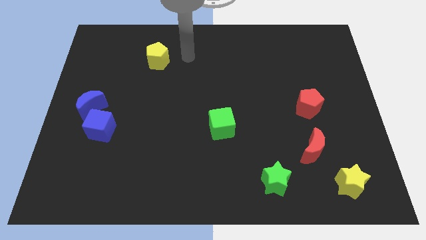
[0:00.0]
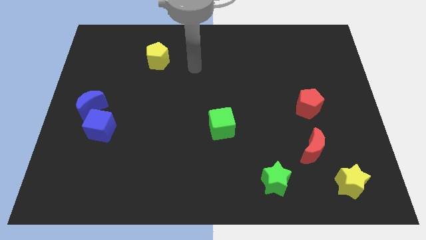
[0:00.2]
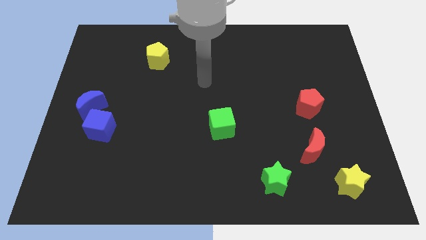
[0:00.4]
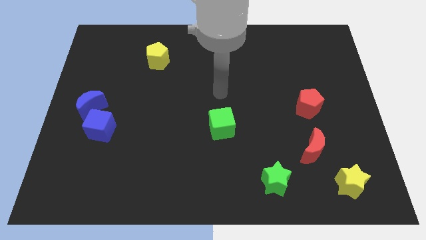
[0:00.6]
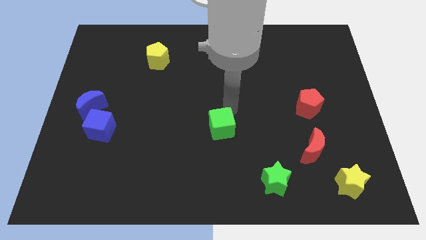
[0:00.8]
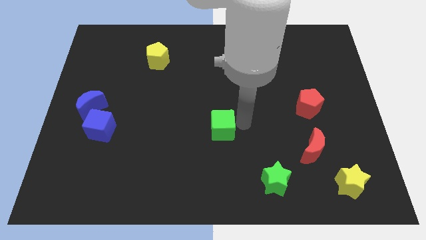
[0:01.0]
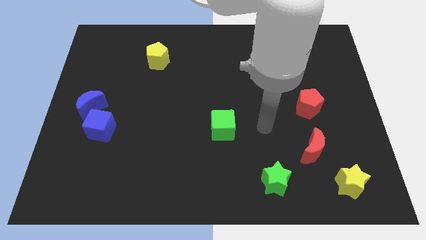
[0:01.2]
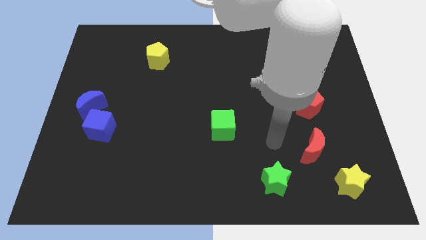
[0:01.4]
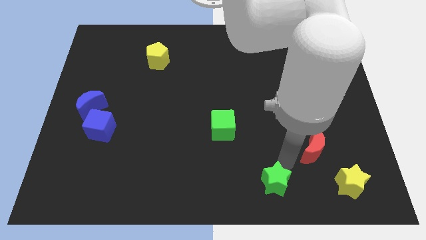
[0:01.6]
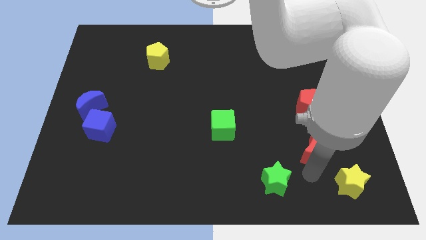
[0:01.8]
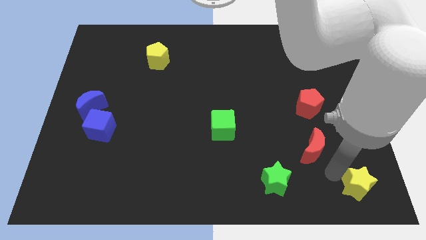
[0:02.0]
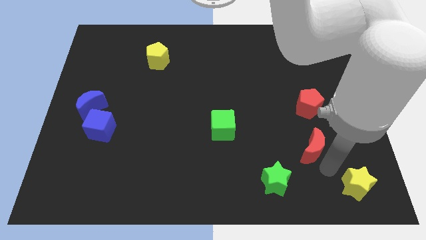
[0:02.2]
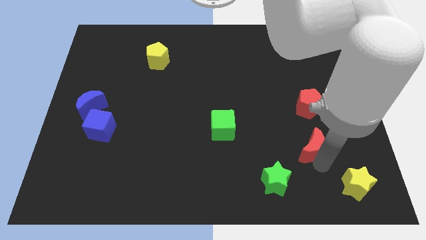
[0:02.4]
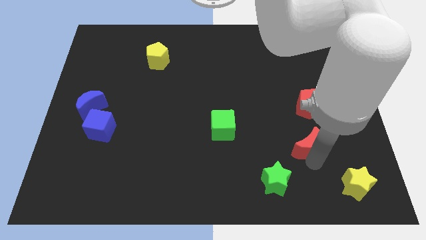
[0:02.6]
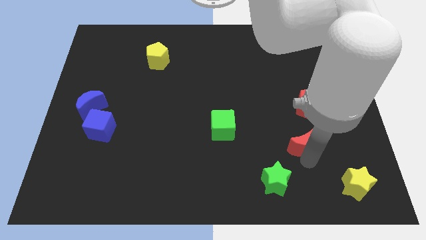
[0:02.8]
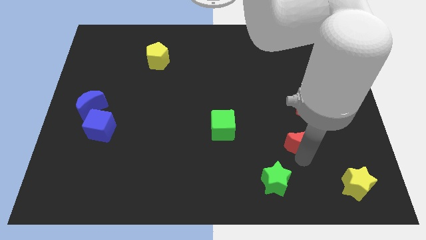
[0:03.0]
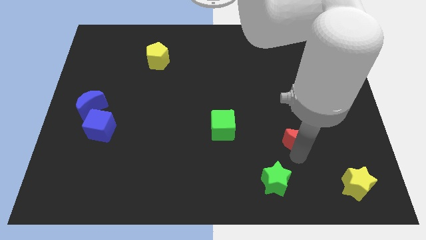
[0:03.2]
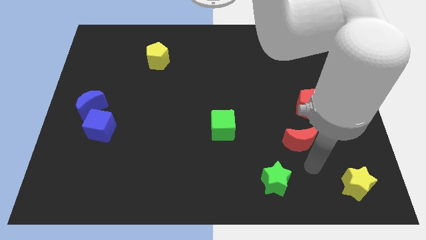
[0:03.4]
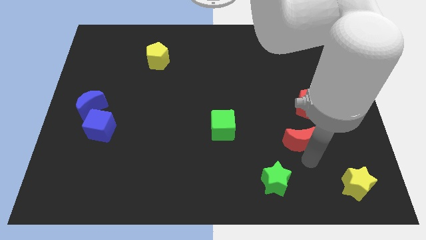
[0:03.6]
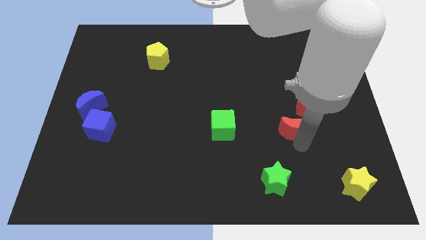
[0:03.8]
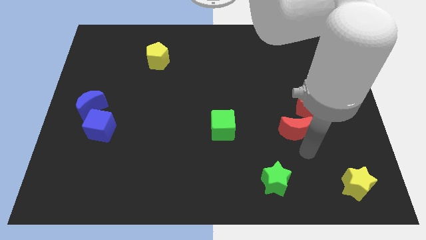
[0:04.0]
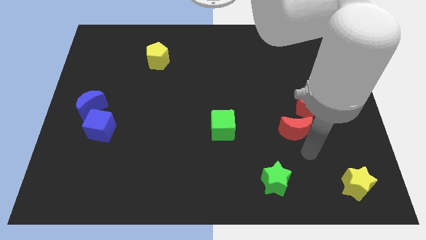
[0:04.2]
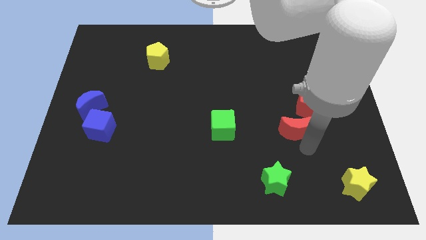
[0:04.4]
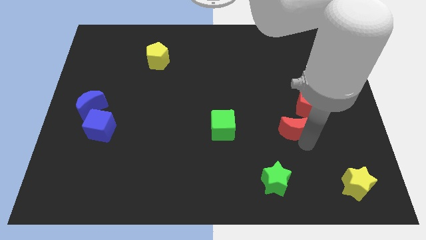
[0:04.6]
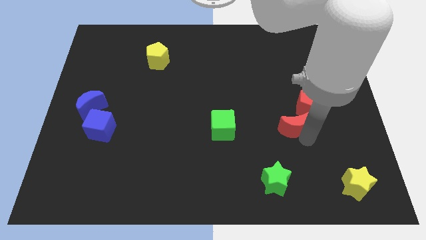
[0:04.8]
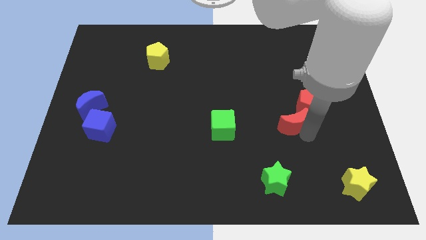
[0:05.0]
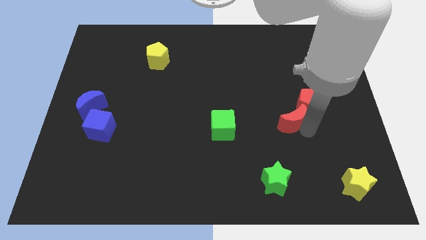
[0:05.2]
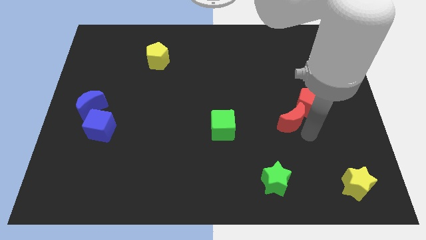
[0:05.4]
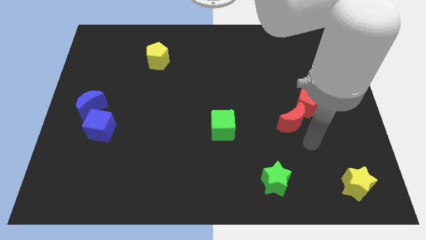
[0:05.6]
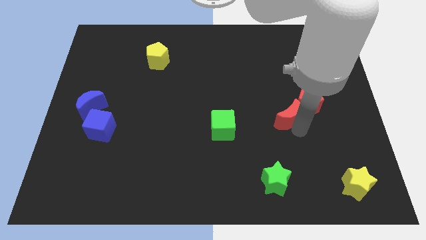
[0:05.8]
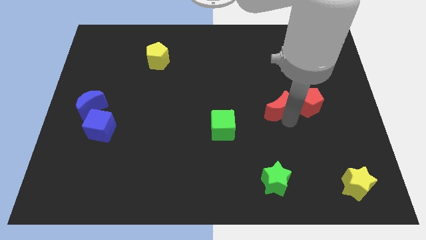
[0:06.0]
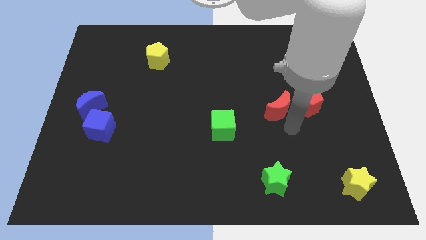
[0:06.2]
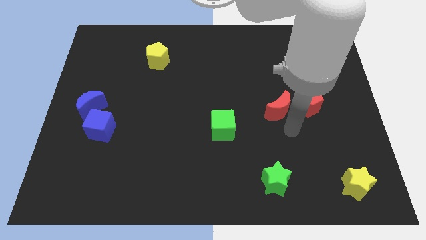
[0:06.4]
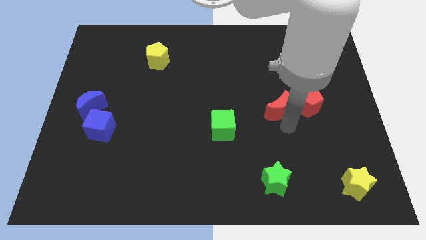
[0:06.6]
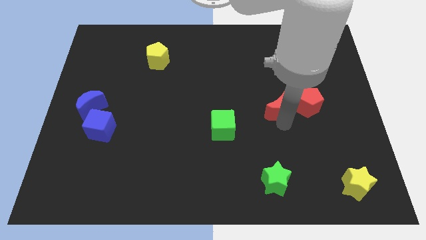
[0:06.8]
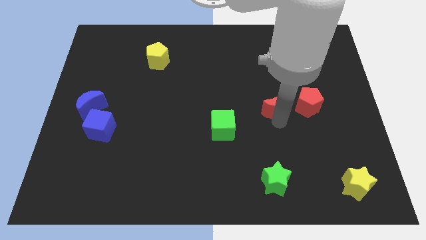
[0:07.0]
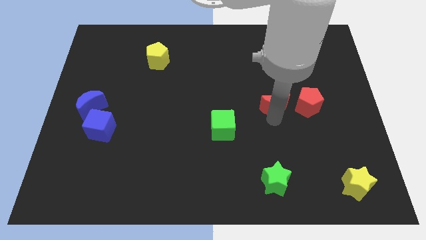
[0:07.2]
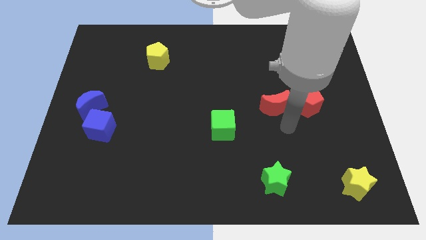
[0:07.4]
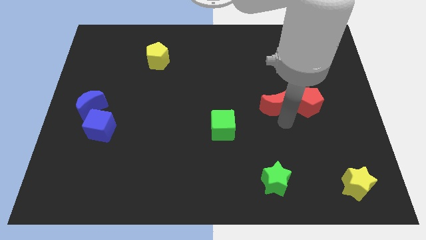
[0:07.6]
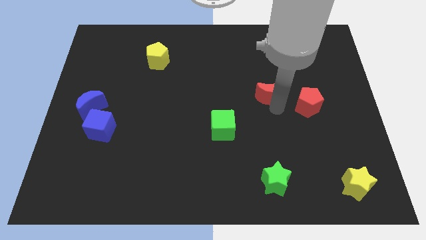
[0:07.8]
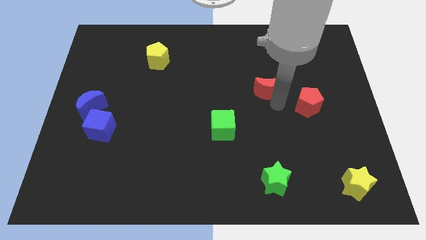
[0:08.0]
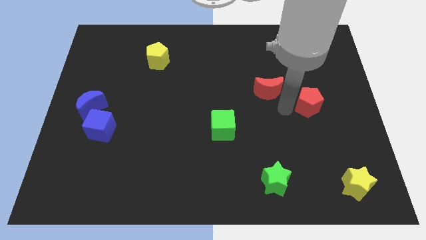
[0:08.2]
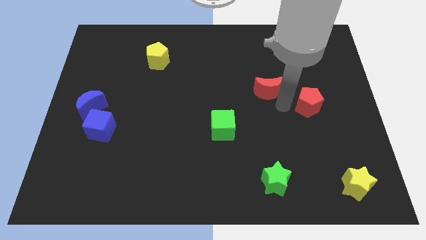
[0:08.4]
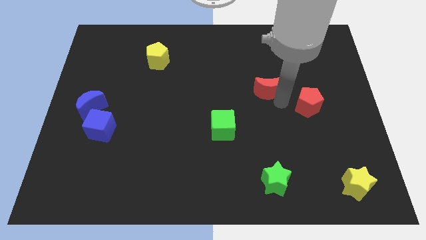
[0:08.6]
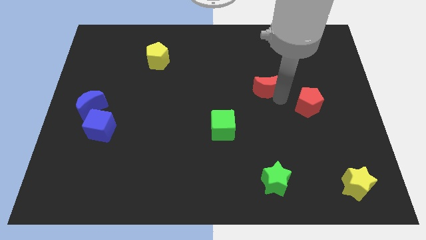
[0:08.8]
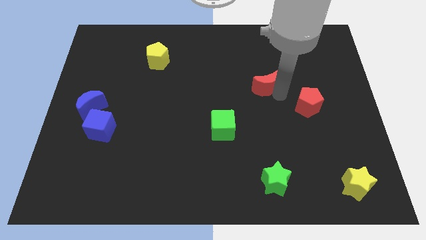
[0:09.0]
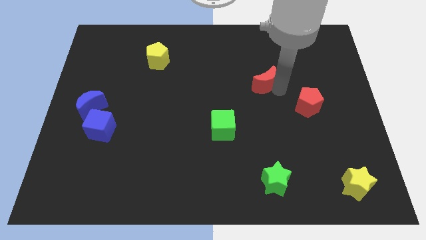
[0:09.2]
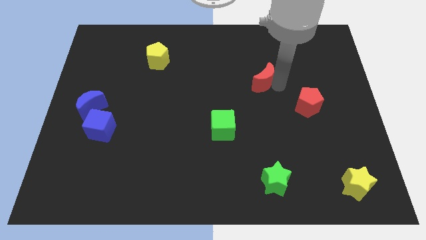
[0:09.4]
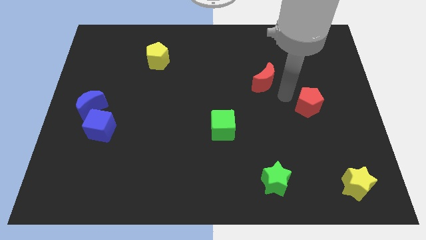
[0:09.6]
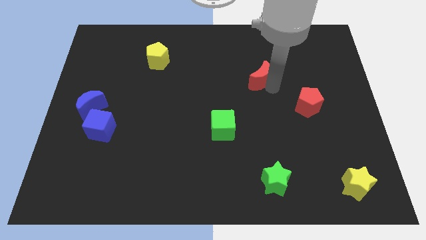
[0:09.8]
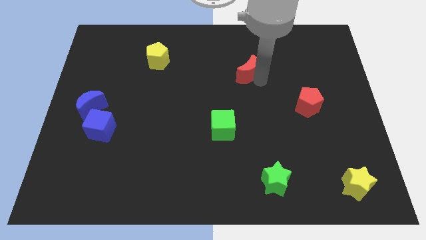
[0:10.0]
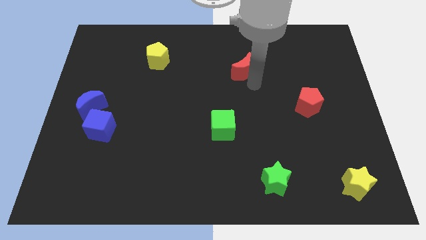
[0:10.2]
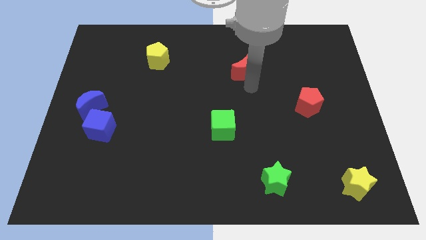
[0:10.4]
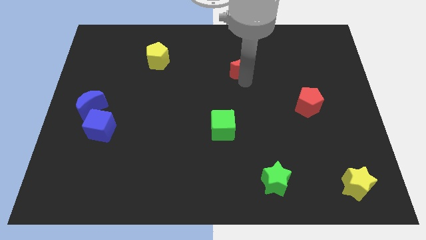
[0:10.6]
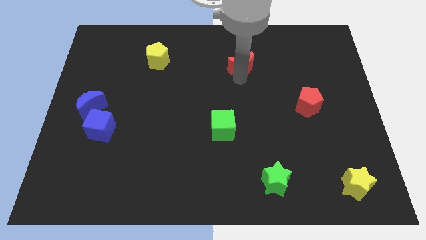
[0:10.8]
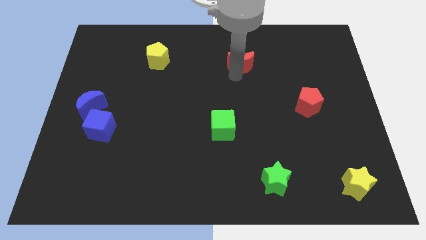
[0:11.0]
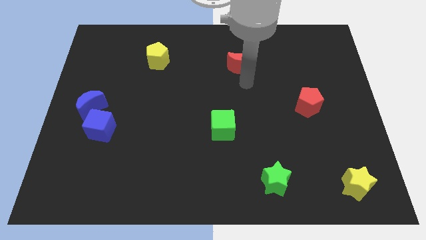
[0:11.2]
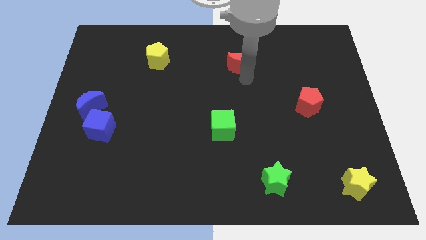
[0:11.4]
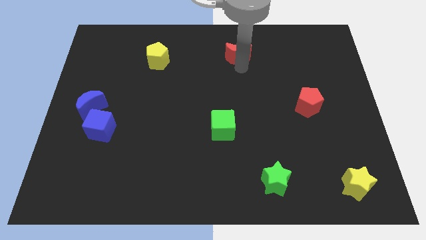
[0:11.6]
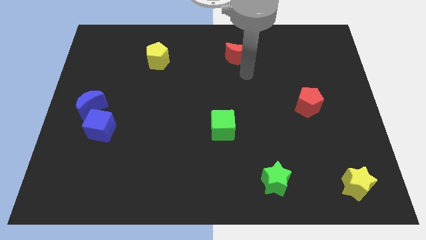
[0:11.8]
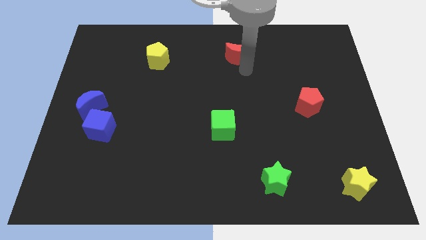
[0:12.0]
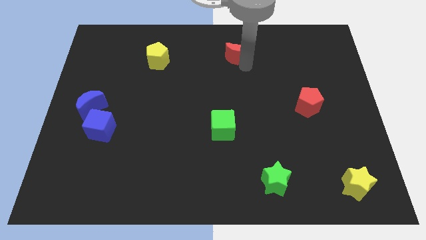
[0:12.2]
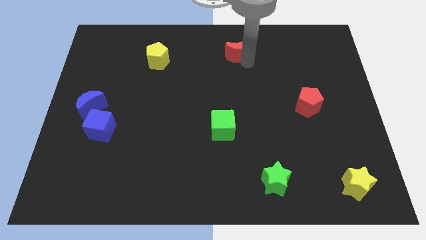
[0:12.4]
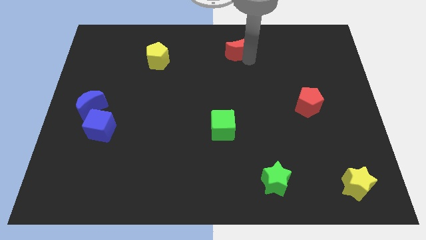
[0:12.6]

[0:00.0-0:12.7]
push the red moon to the towards your base

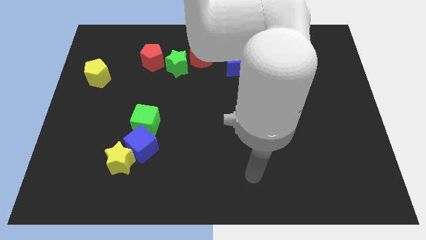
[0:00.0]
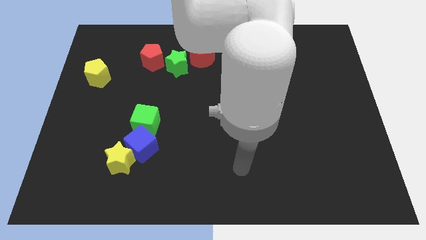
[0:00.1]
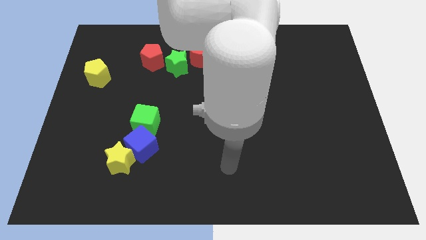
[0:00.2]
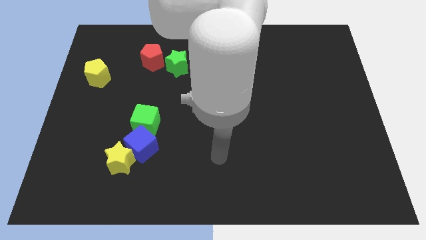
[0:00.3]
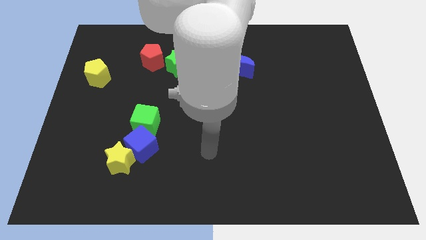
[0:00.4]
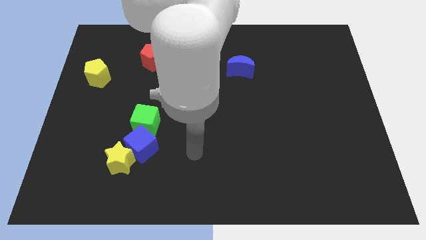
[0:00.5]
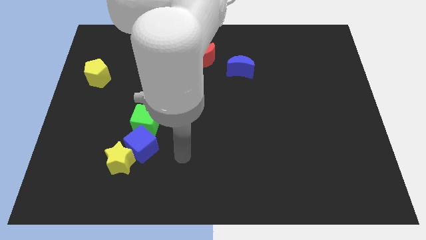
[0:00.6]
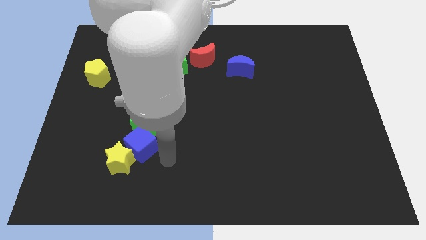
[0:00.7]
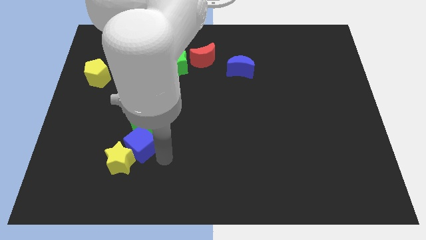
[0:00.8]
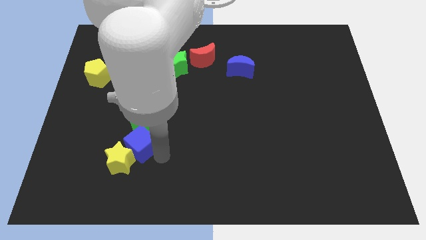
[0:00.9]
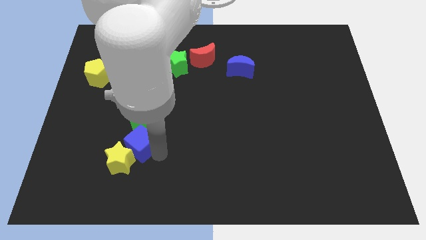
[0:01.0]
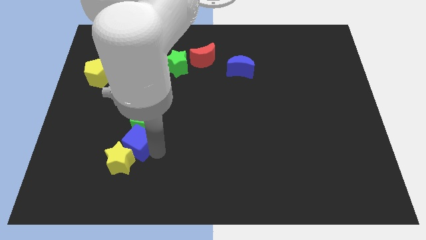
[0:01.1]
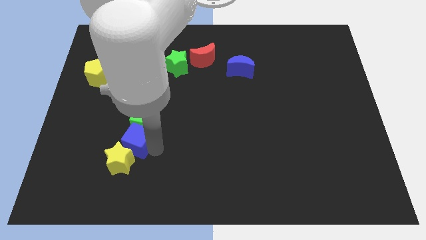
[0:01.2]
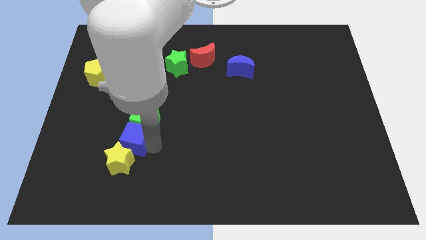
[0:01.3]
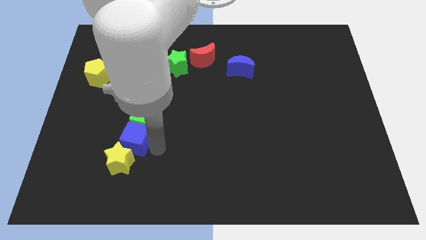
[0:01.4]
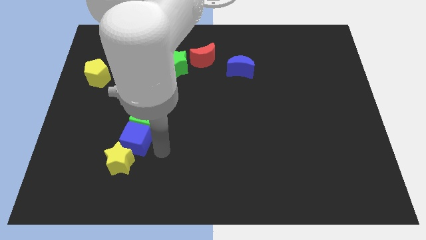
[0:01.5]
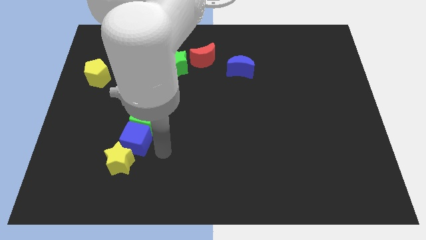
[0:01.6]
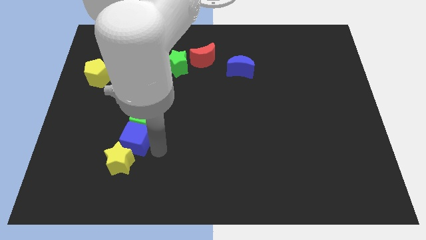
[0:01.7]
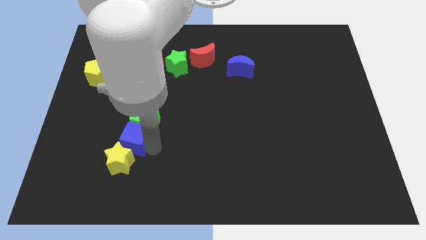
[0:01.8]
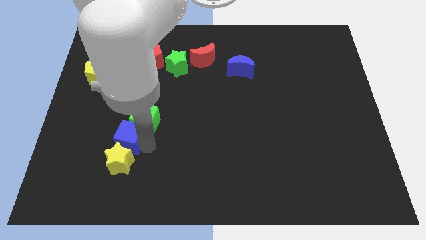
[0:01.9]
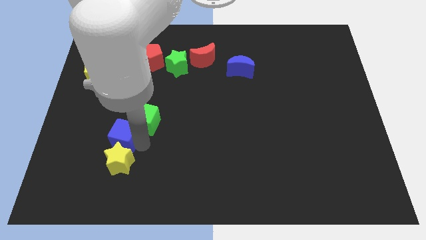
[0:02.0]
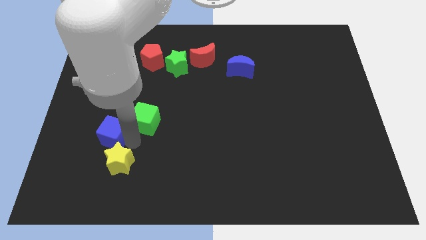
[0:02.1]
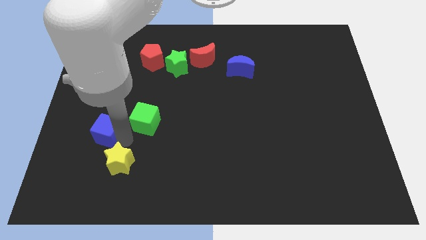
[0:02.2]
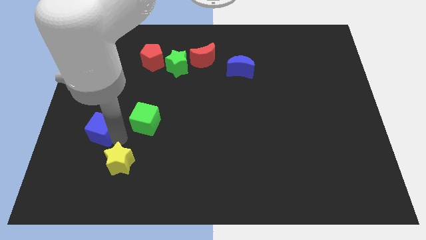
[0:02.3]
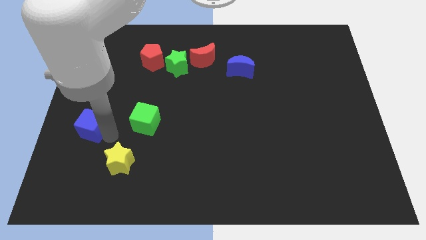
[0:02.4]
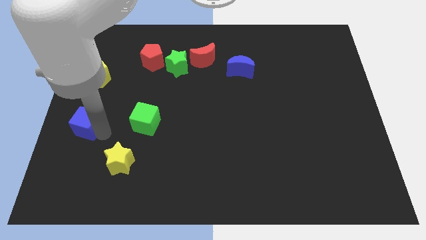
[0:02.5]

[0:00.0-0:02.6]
slide the blue cube to the left side of the board
